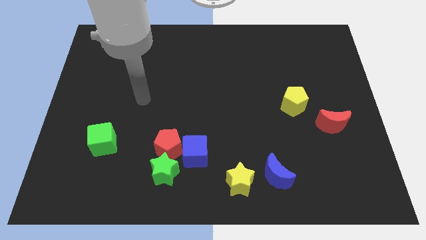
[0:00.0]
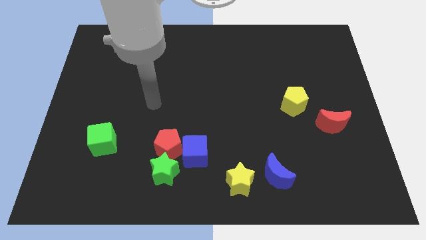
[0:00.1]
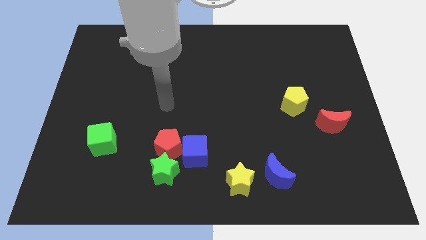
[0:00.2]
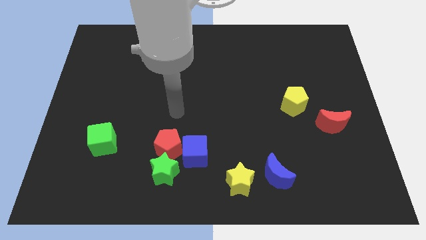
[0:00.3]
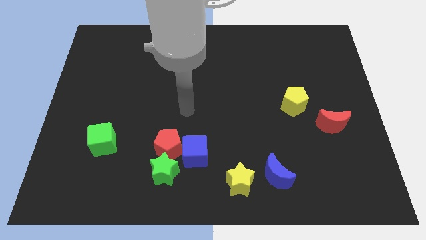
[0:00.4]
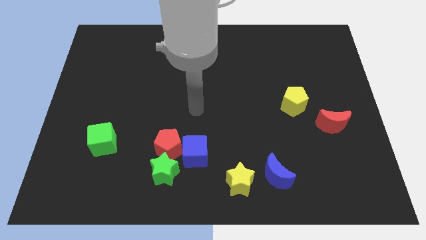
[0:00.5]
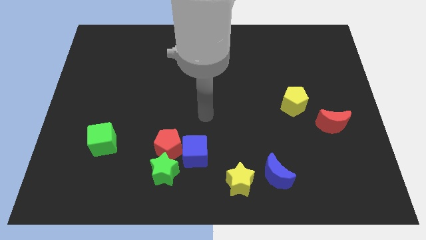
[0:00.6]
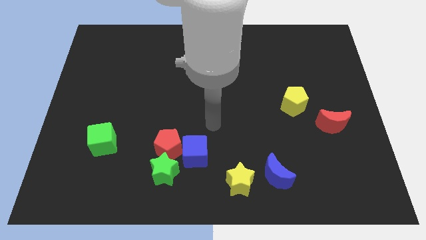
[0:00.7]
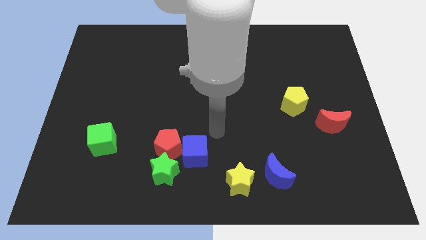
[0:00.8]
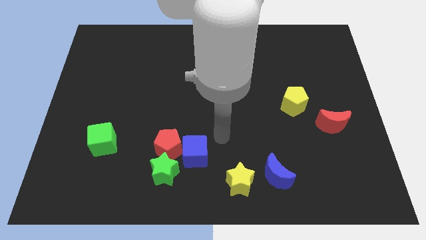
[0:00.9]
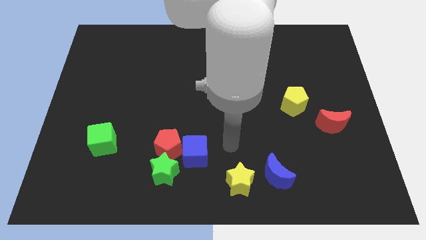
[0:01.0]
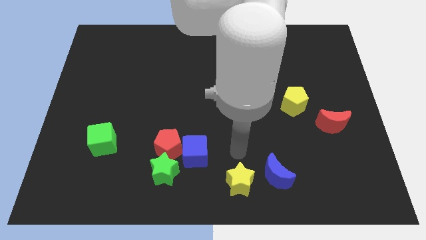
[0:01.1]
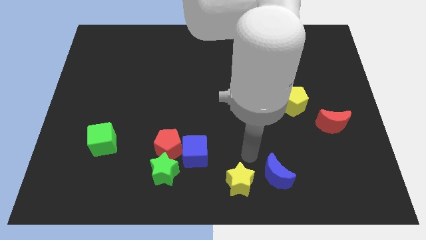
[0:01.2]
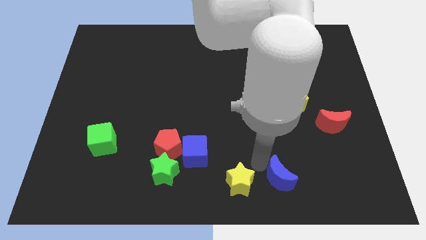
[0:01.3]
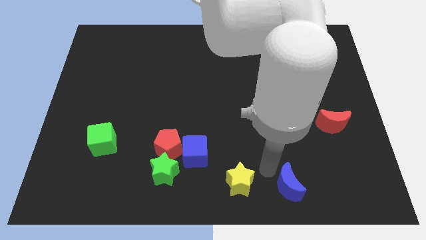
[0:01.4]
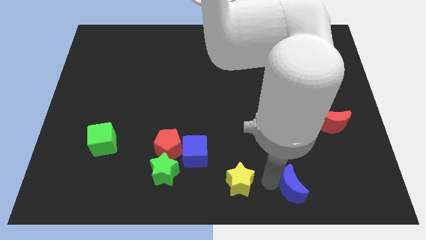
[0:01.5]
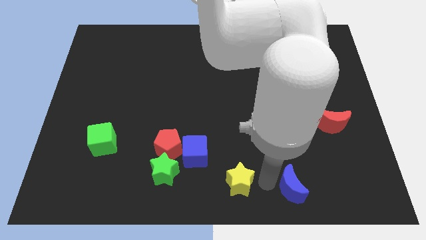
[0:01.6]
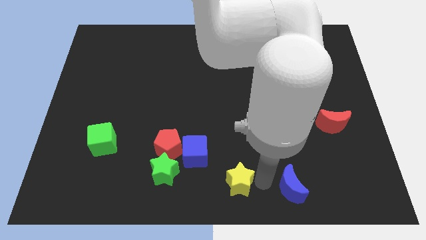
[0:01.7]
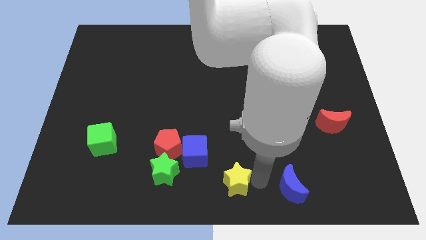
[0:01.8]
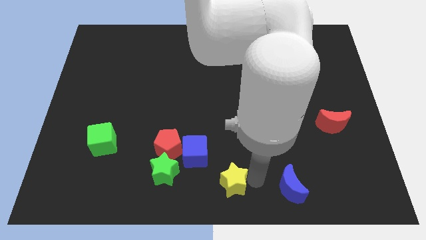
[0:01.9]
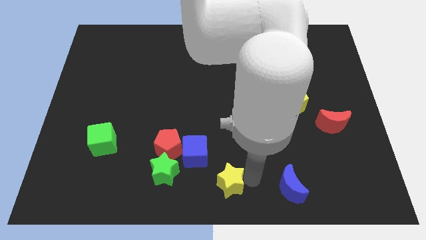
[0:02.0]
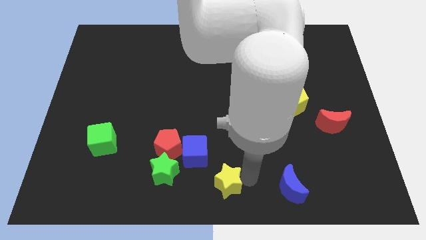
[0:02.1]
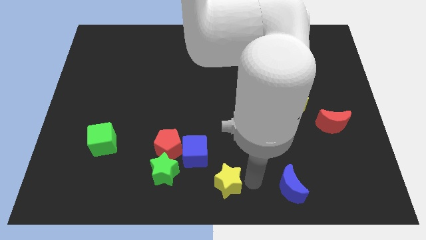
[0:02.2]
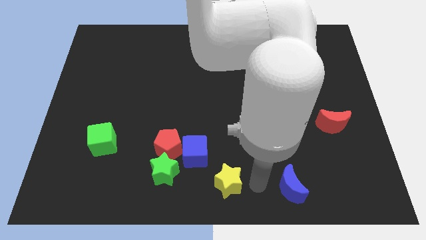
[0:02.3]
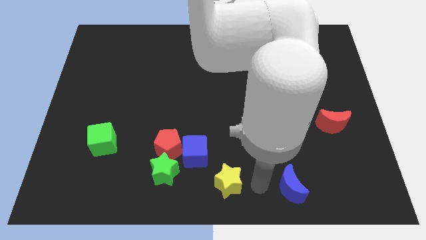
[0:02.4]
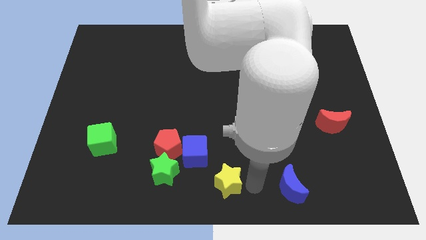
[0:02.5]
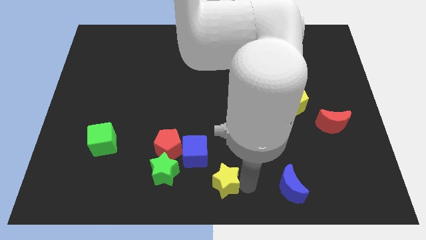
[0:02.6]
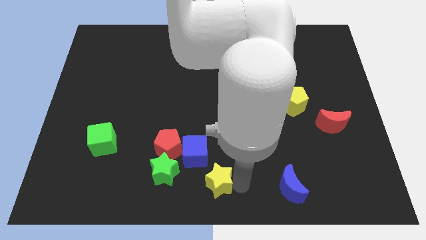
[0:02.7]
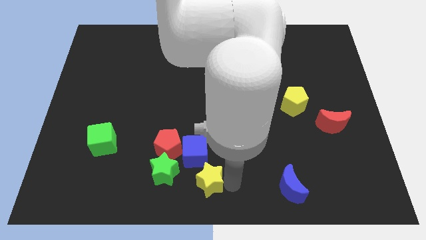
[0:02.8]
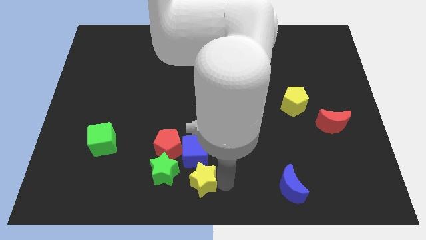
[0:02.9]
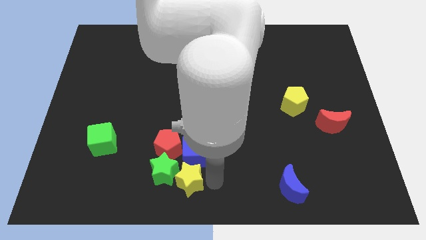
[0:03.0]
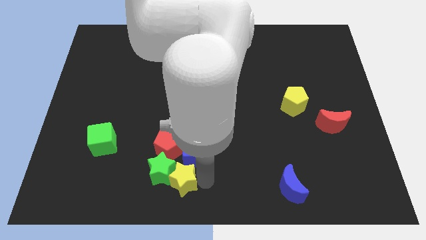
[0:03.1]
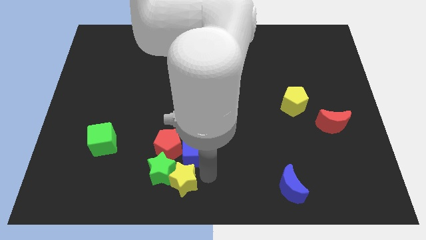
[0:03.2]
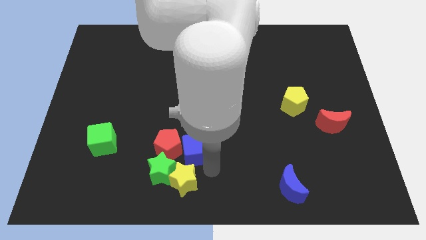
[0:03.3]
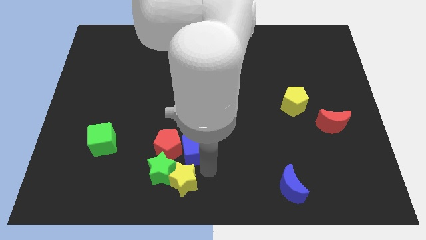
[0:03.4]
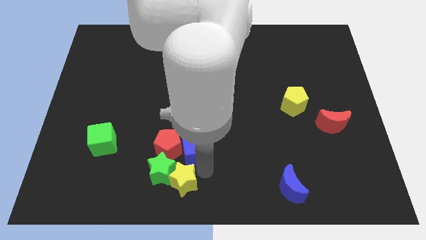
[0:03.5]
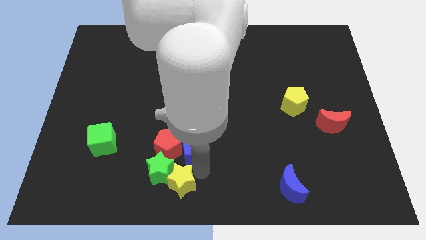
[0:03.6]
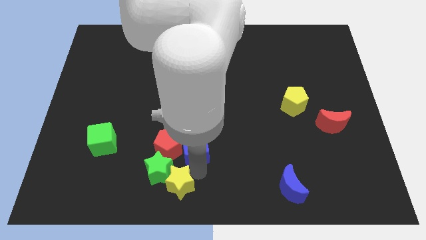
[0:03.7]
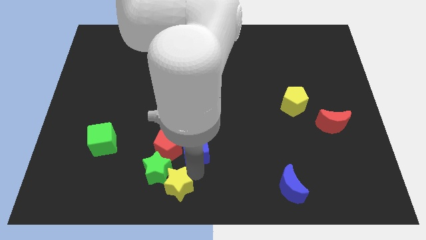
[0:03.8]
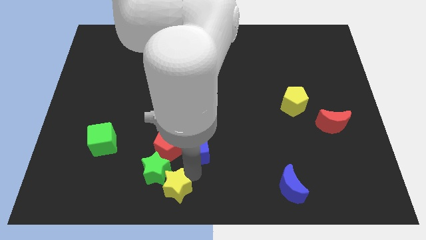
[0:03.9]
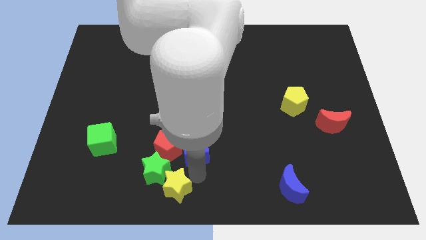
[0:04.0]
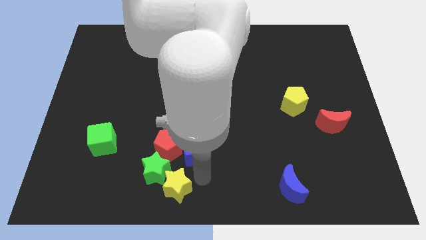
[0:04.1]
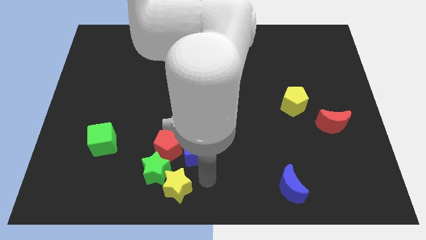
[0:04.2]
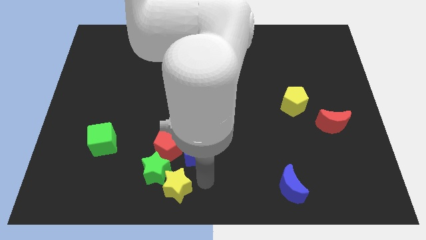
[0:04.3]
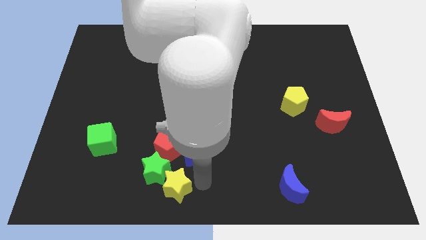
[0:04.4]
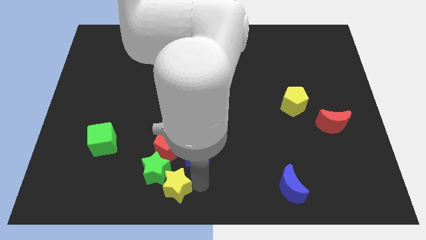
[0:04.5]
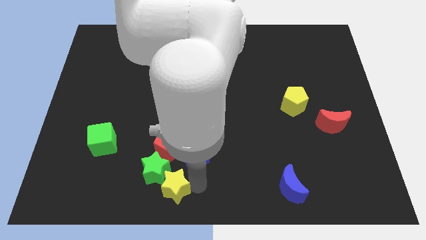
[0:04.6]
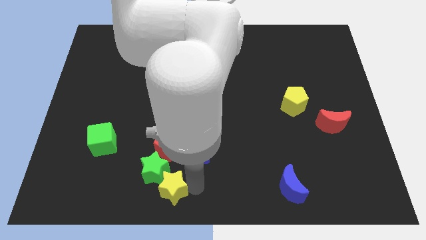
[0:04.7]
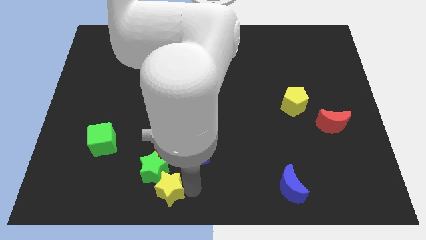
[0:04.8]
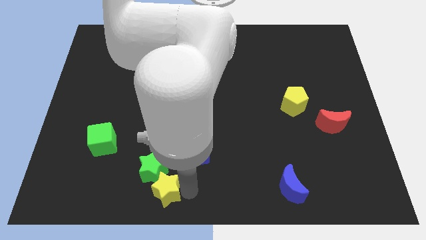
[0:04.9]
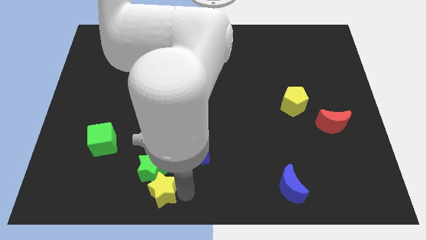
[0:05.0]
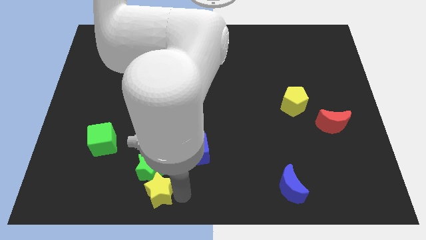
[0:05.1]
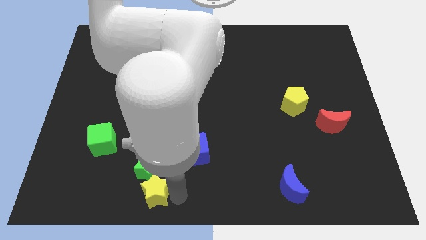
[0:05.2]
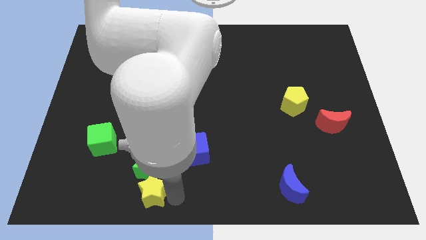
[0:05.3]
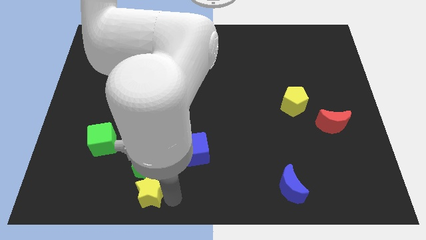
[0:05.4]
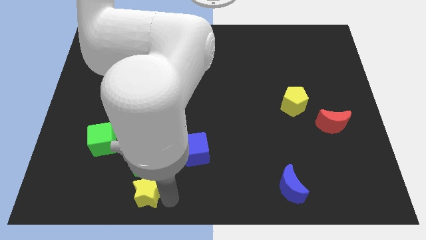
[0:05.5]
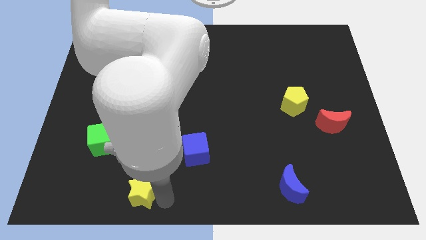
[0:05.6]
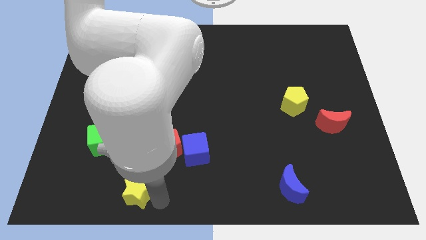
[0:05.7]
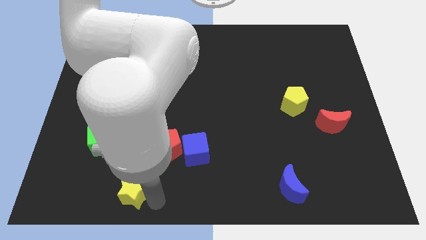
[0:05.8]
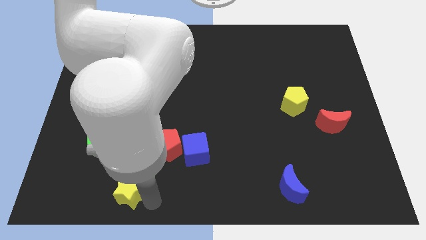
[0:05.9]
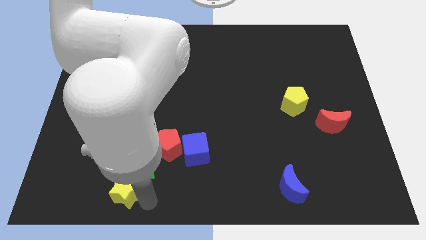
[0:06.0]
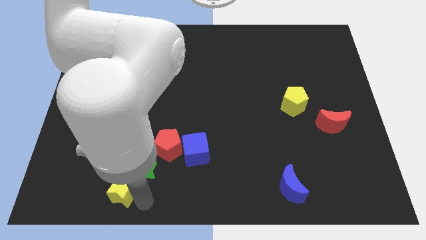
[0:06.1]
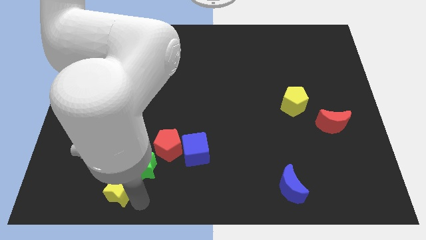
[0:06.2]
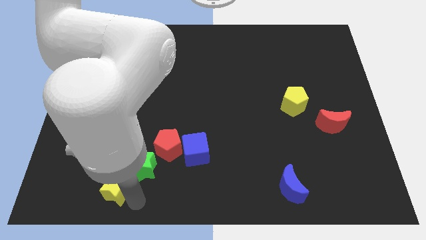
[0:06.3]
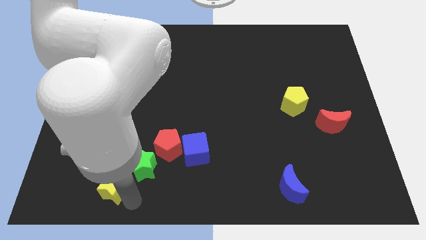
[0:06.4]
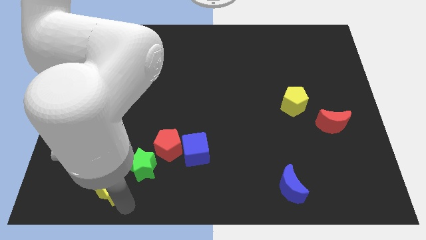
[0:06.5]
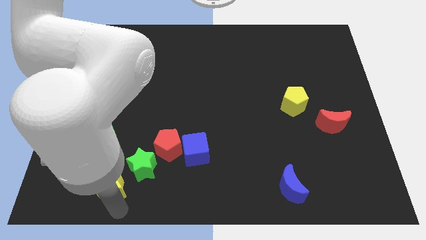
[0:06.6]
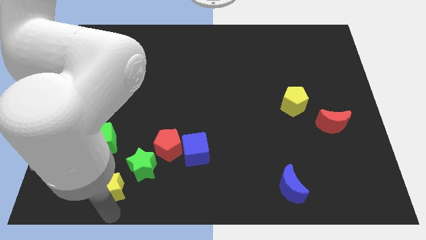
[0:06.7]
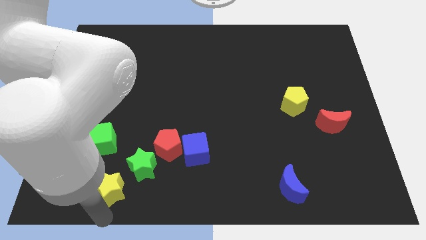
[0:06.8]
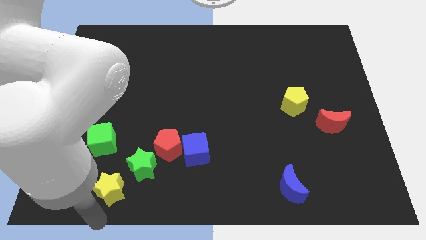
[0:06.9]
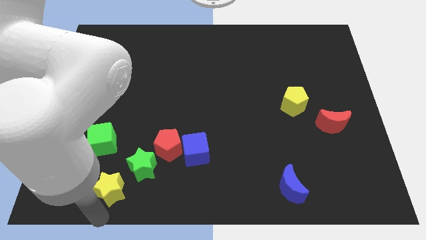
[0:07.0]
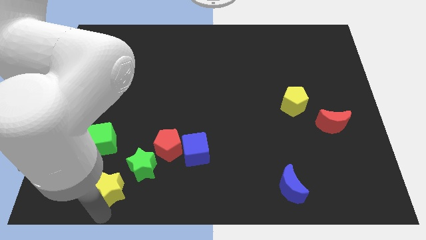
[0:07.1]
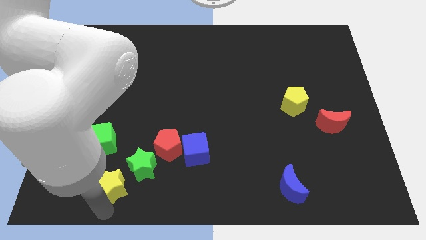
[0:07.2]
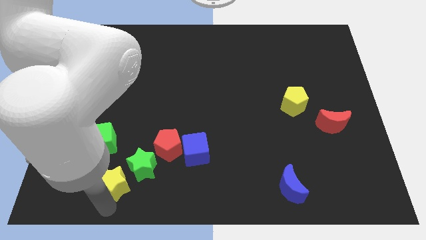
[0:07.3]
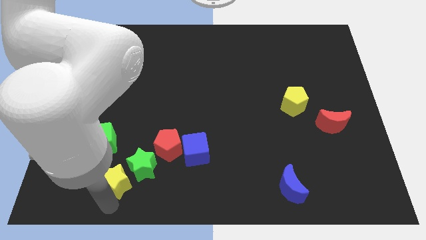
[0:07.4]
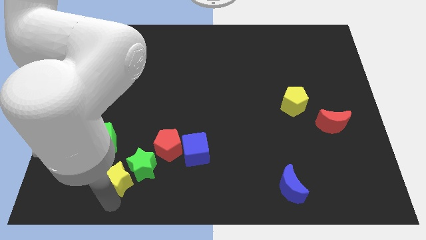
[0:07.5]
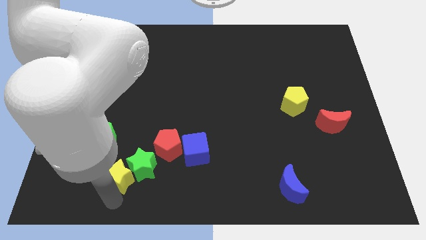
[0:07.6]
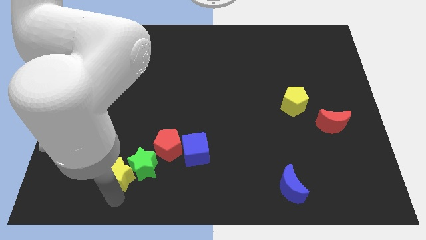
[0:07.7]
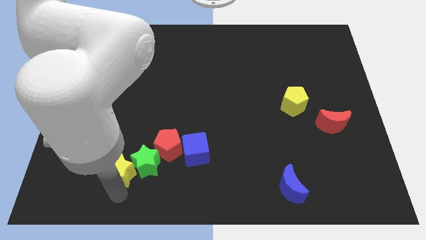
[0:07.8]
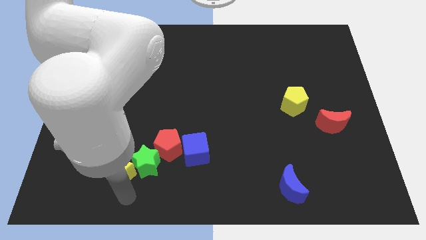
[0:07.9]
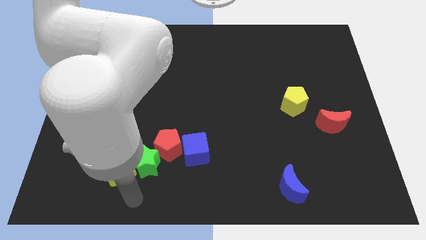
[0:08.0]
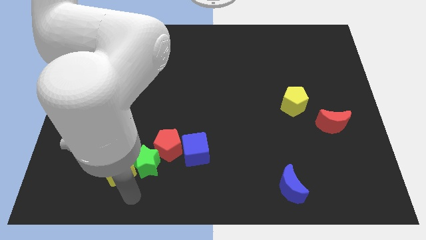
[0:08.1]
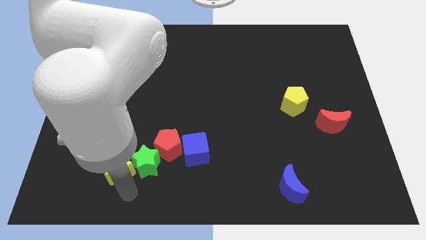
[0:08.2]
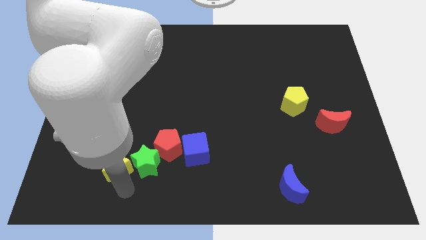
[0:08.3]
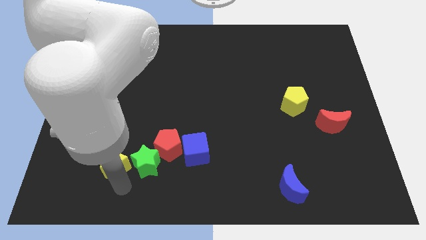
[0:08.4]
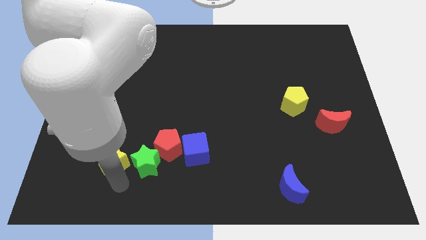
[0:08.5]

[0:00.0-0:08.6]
move the yellow star next to the green cube
